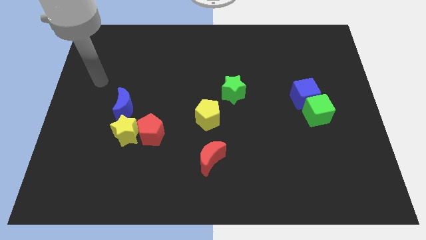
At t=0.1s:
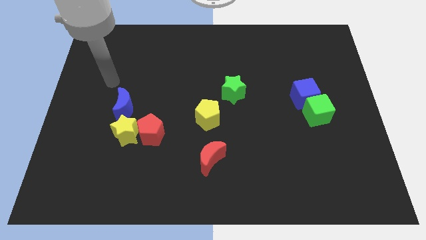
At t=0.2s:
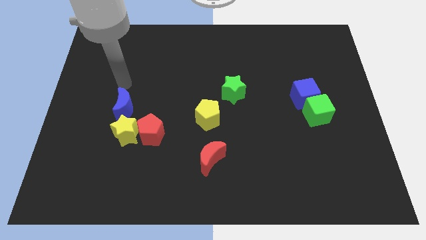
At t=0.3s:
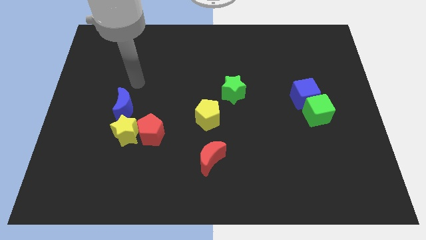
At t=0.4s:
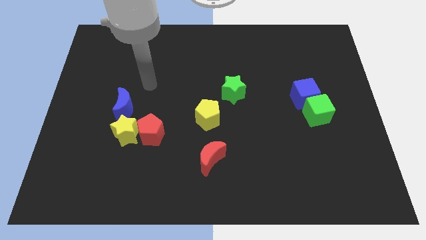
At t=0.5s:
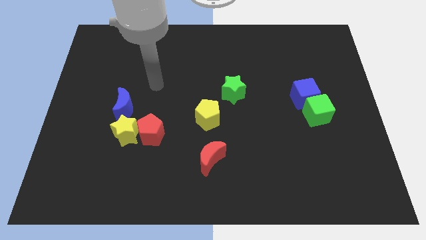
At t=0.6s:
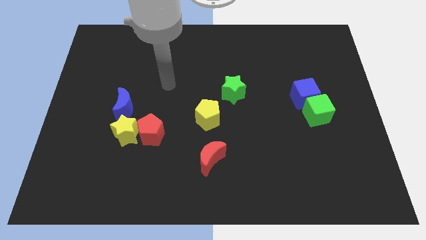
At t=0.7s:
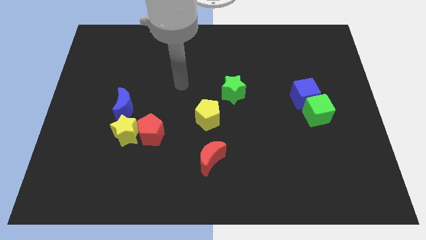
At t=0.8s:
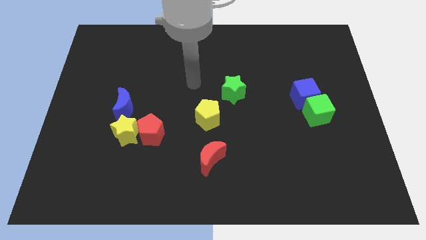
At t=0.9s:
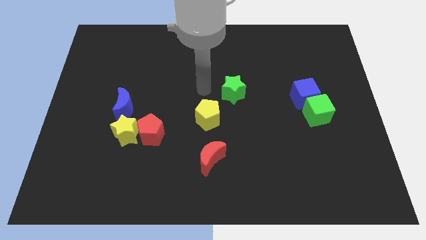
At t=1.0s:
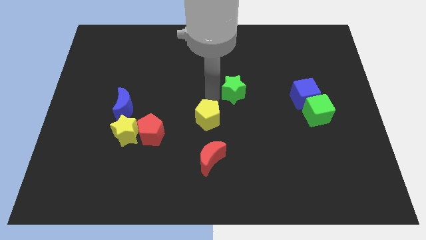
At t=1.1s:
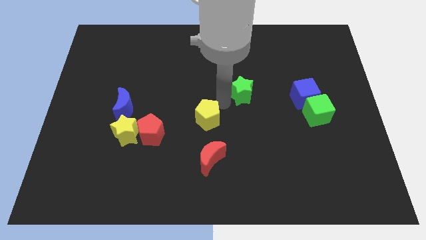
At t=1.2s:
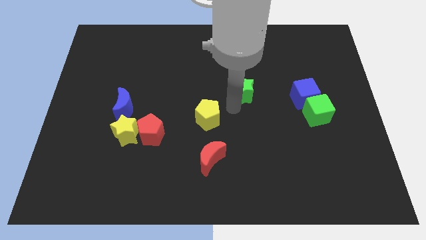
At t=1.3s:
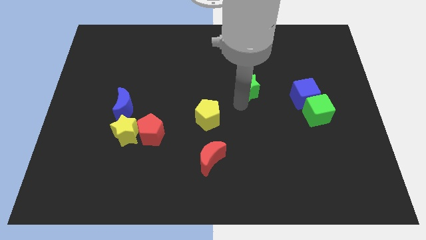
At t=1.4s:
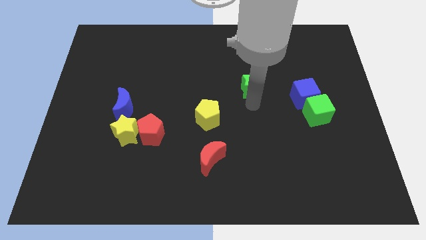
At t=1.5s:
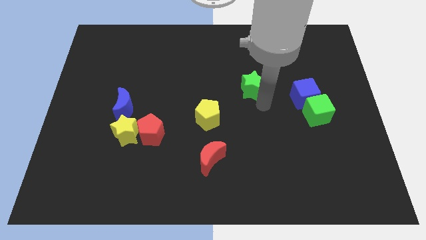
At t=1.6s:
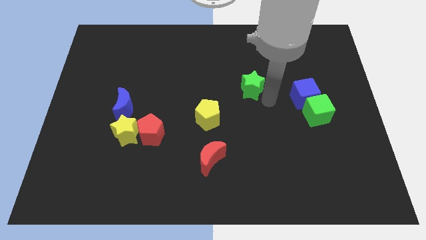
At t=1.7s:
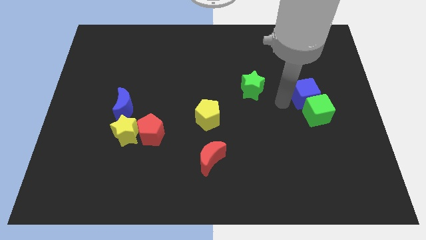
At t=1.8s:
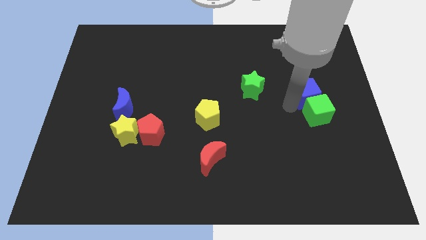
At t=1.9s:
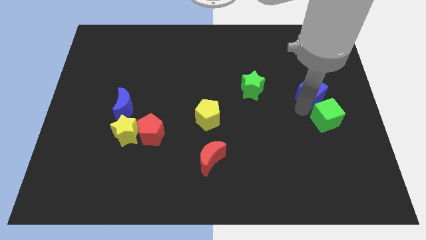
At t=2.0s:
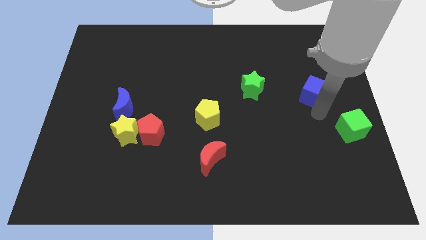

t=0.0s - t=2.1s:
pull the blue cube apart from the green cube

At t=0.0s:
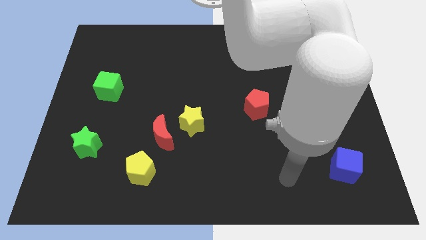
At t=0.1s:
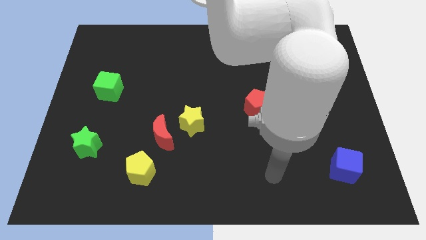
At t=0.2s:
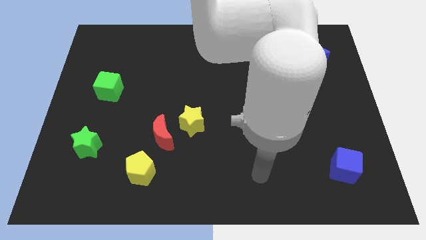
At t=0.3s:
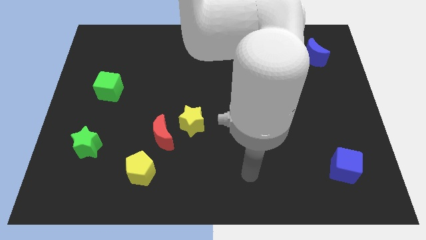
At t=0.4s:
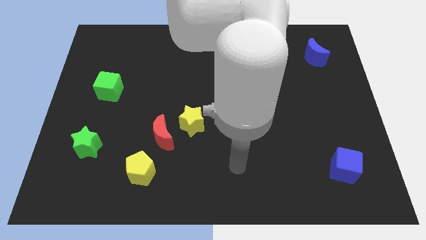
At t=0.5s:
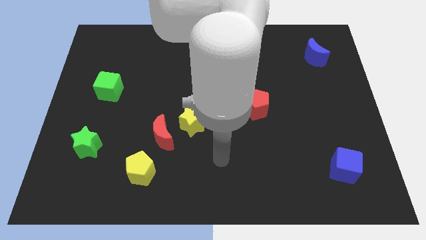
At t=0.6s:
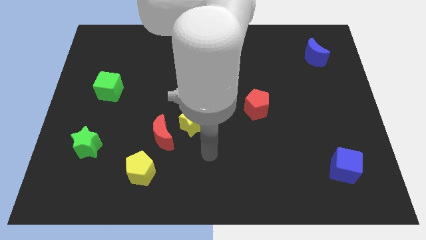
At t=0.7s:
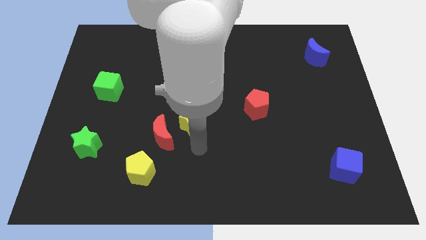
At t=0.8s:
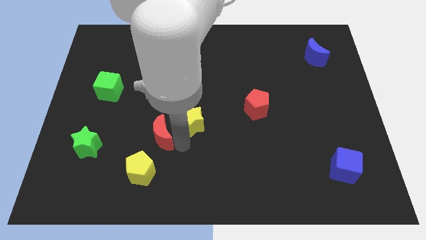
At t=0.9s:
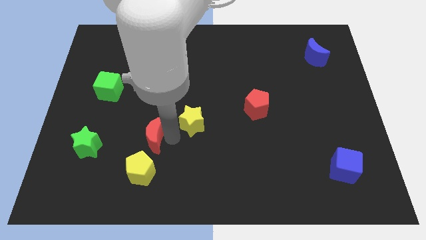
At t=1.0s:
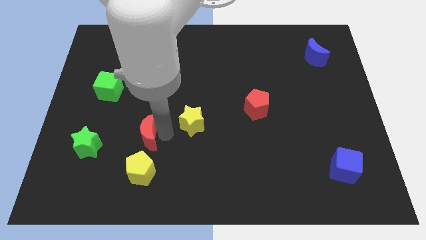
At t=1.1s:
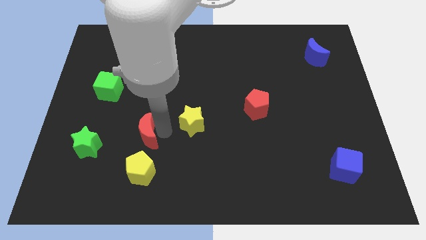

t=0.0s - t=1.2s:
pull the yellow star apart from the red moon

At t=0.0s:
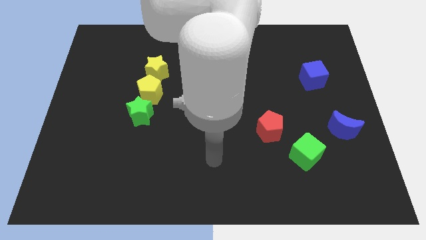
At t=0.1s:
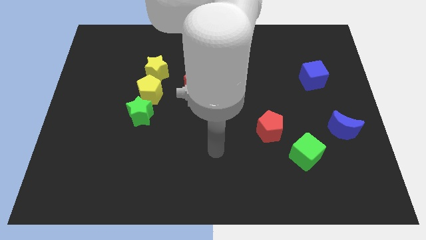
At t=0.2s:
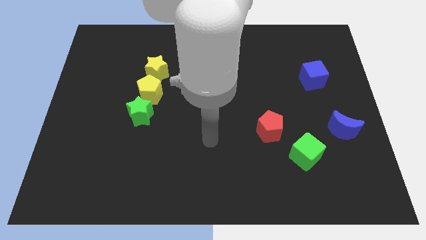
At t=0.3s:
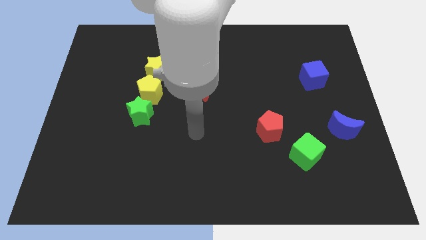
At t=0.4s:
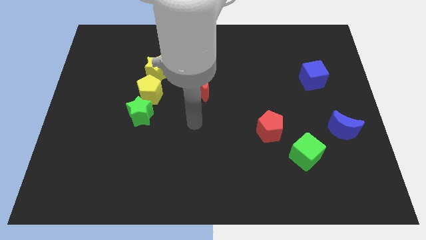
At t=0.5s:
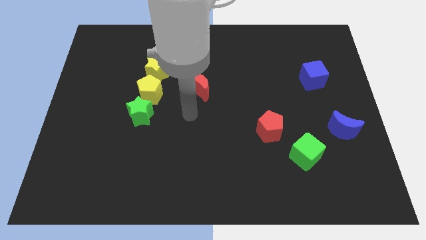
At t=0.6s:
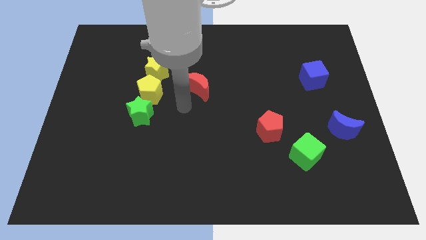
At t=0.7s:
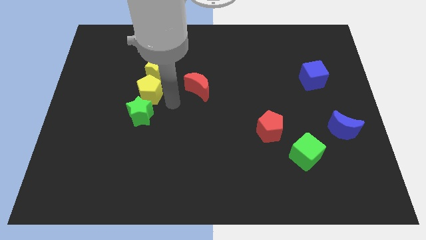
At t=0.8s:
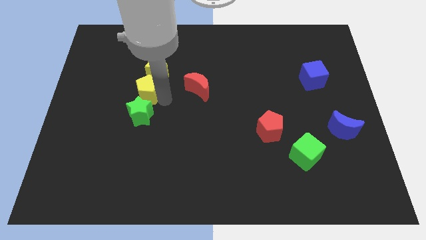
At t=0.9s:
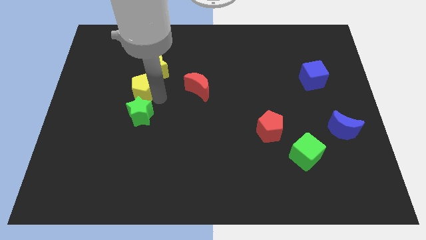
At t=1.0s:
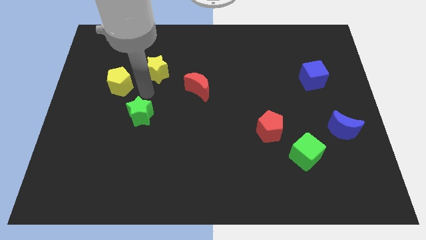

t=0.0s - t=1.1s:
move the green star away from the yellow pentagon

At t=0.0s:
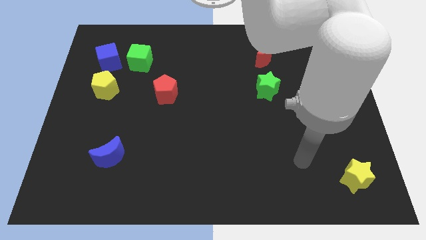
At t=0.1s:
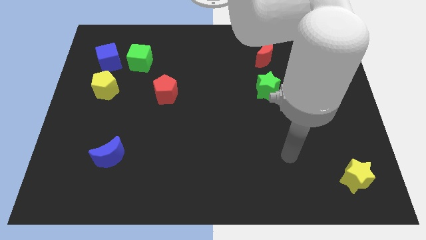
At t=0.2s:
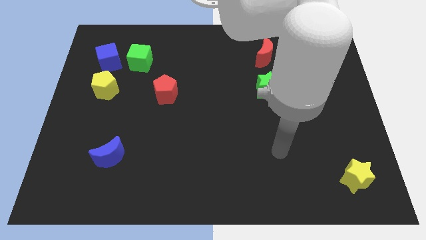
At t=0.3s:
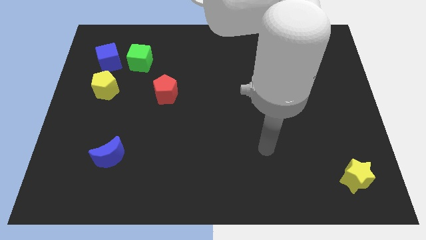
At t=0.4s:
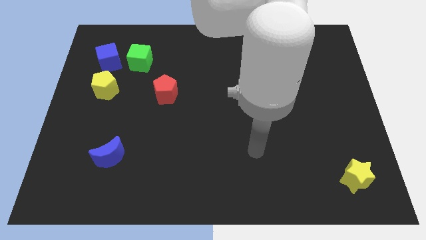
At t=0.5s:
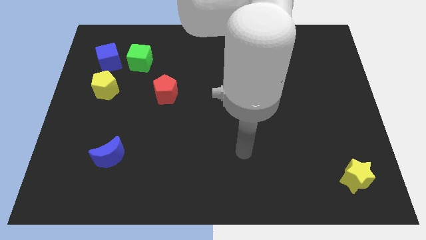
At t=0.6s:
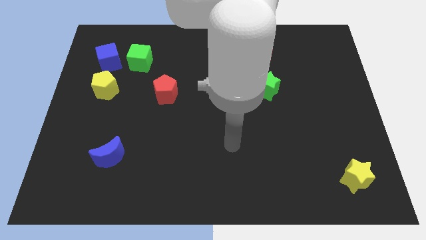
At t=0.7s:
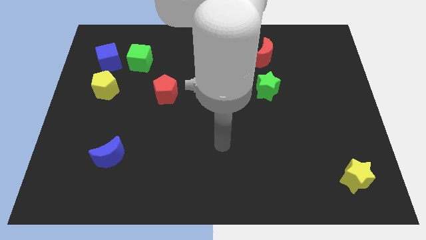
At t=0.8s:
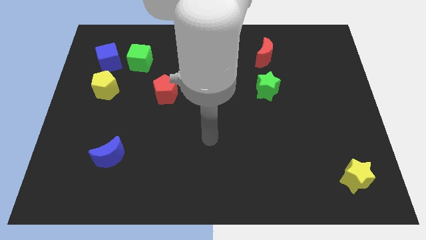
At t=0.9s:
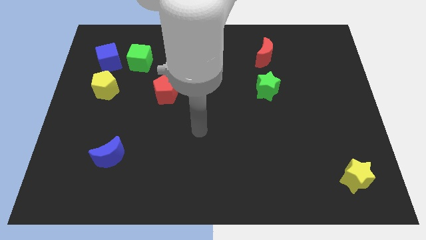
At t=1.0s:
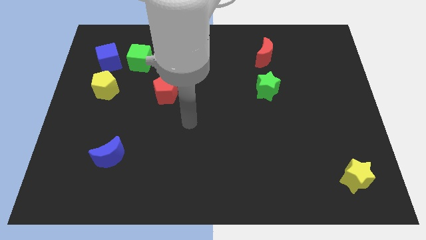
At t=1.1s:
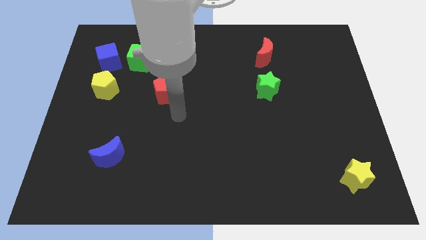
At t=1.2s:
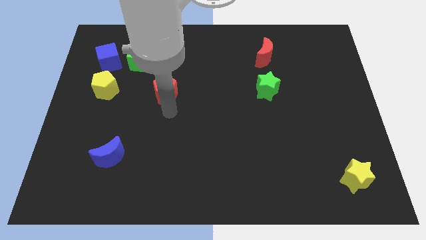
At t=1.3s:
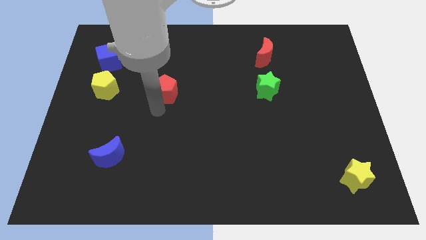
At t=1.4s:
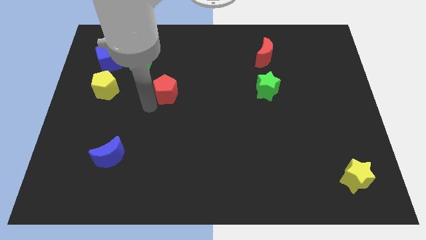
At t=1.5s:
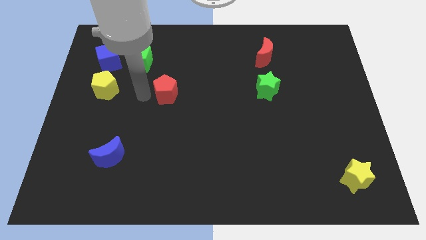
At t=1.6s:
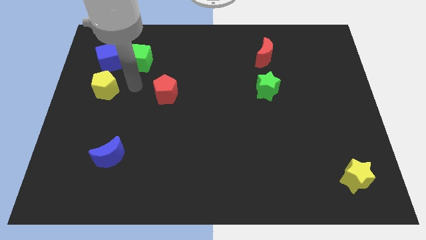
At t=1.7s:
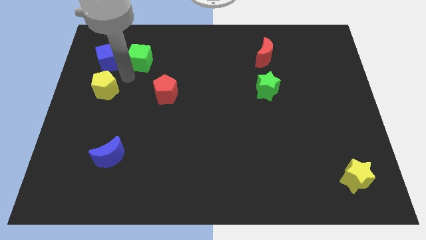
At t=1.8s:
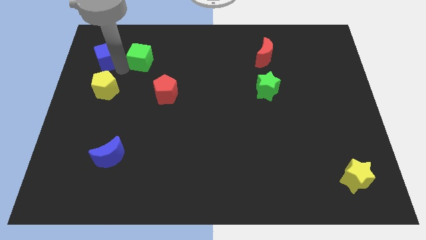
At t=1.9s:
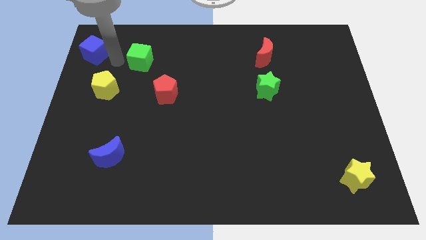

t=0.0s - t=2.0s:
pull the green cube apart from the blue cube

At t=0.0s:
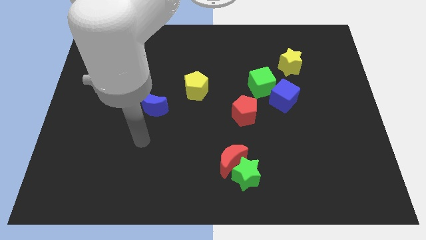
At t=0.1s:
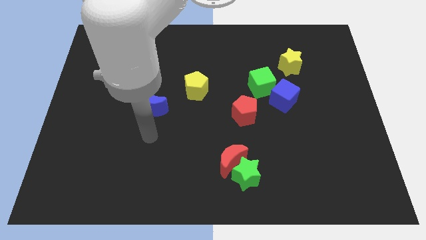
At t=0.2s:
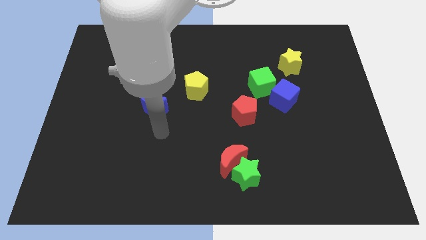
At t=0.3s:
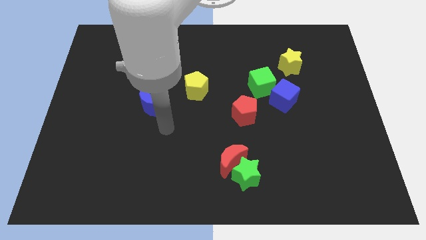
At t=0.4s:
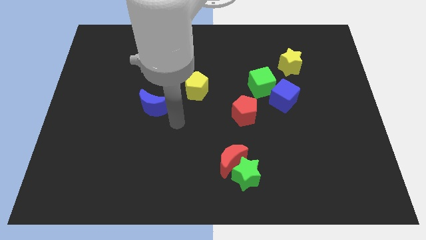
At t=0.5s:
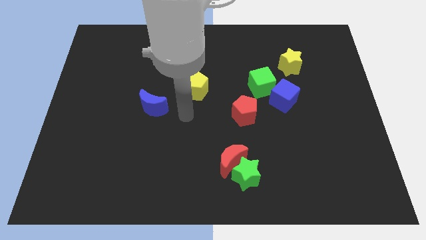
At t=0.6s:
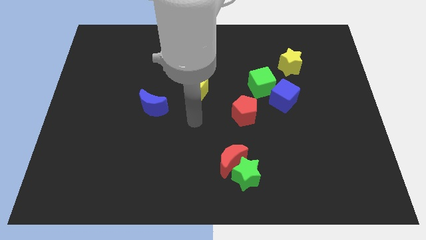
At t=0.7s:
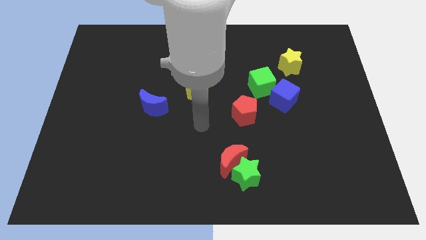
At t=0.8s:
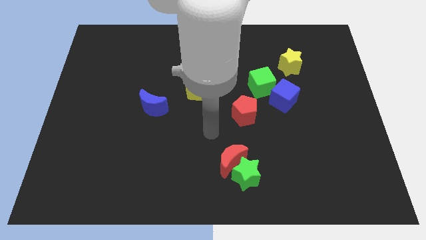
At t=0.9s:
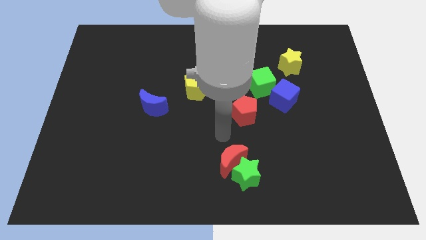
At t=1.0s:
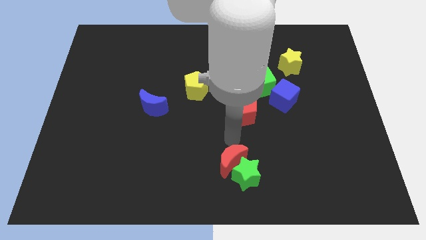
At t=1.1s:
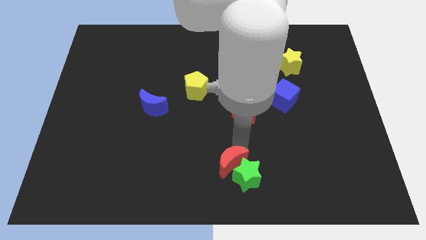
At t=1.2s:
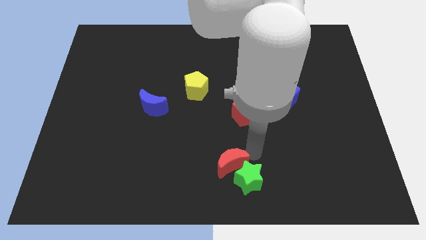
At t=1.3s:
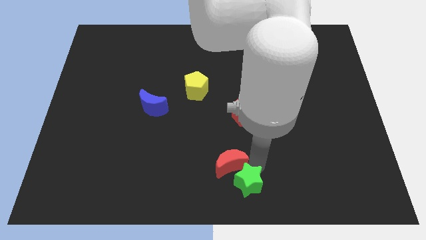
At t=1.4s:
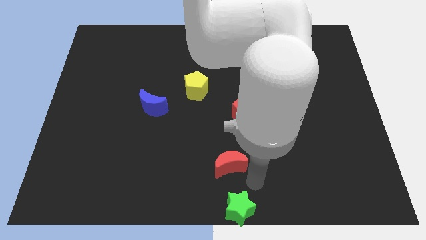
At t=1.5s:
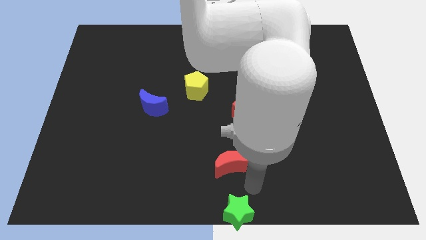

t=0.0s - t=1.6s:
pull the red moon apart from the green star

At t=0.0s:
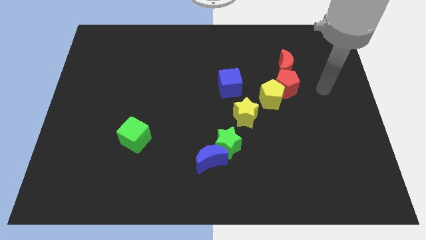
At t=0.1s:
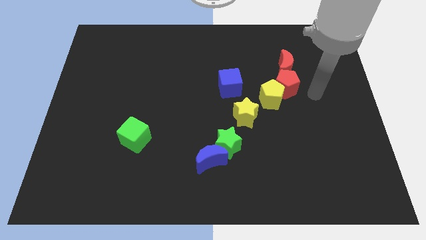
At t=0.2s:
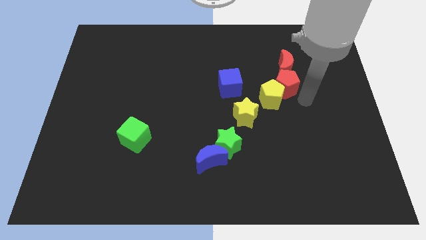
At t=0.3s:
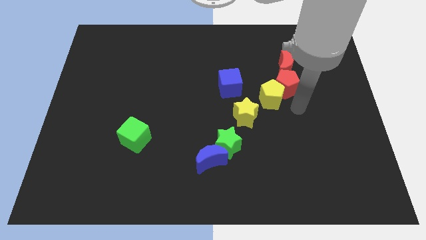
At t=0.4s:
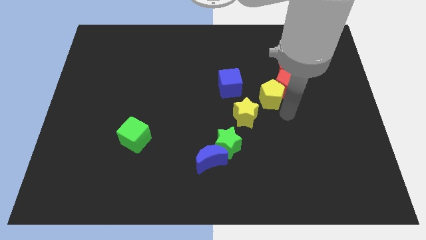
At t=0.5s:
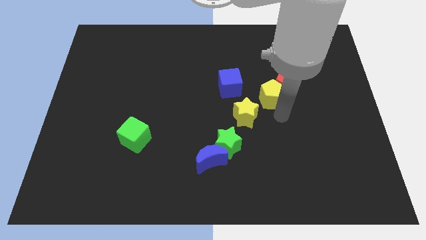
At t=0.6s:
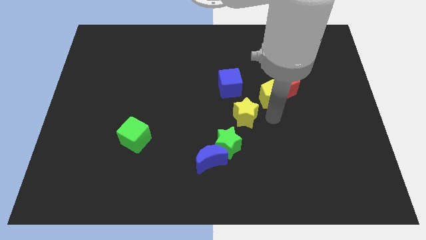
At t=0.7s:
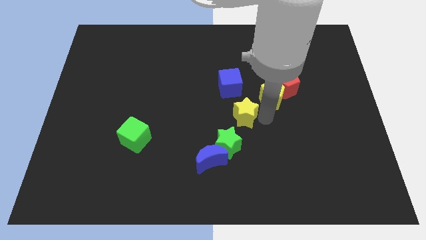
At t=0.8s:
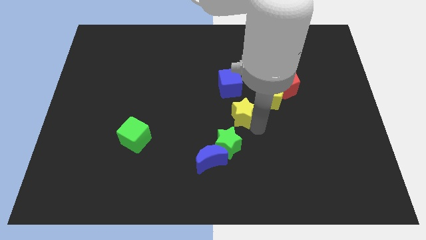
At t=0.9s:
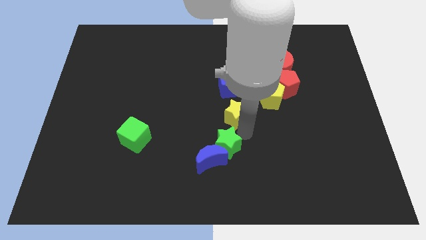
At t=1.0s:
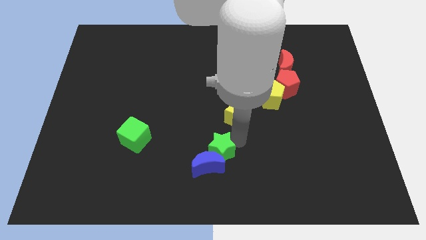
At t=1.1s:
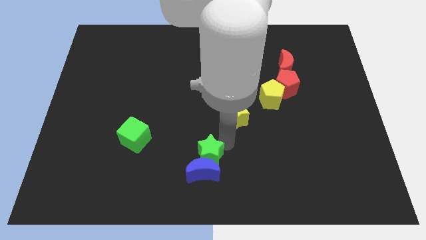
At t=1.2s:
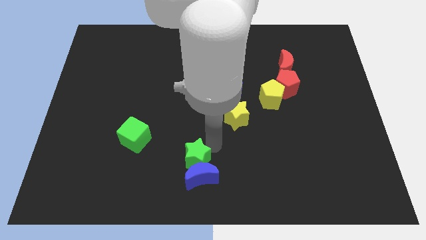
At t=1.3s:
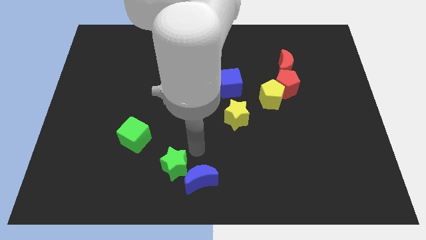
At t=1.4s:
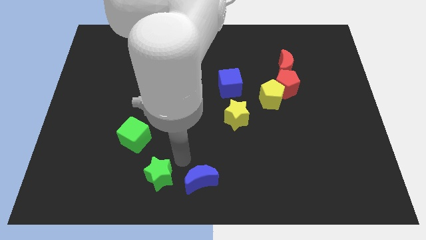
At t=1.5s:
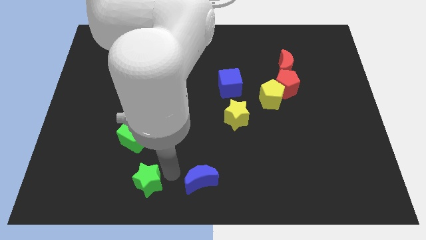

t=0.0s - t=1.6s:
pull the blue moon apart from the green star
